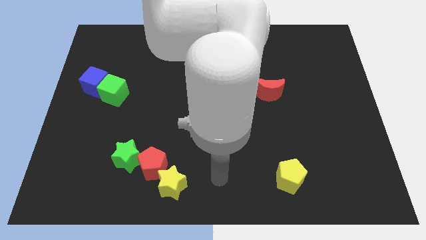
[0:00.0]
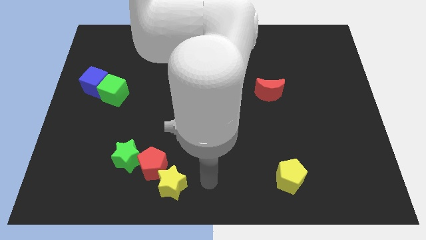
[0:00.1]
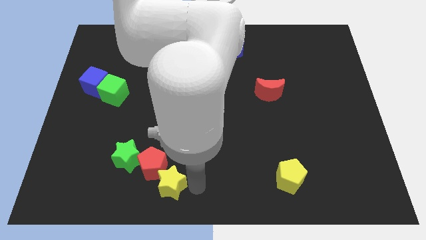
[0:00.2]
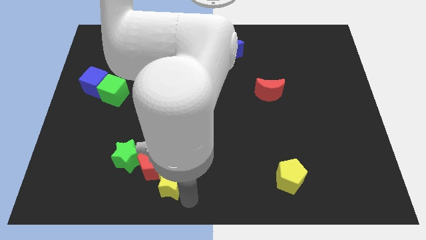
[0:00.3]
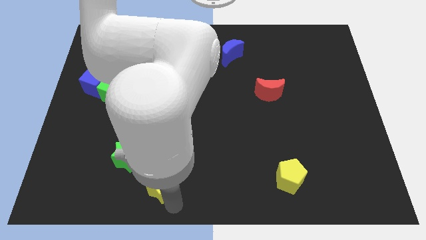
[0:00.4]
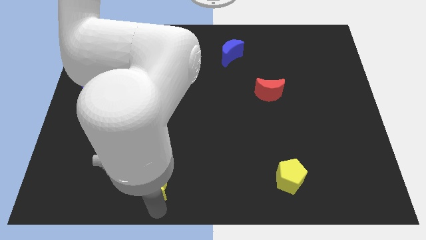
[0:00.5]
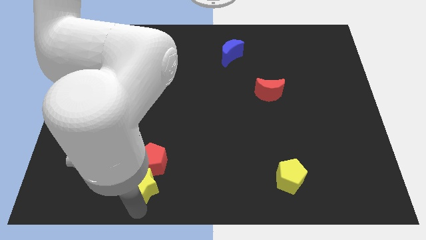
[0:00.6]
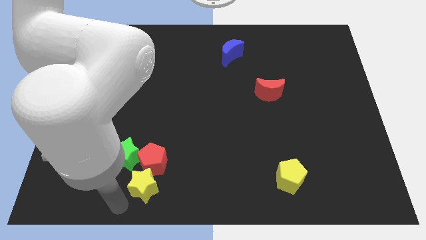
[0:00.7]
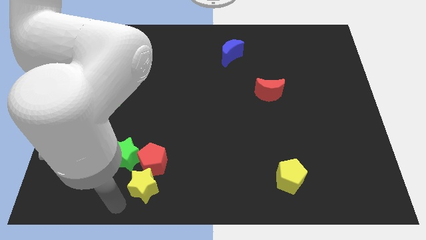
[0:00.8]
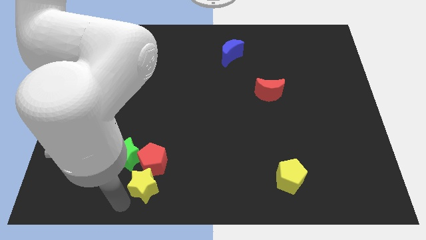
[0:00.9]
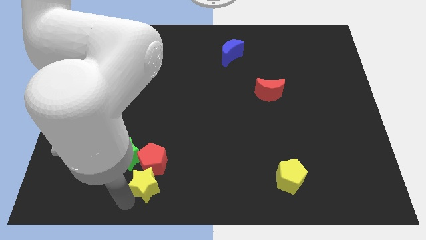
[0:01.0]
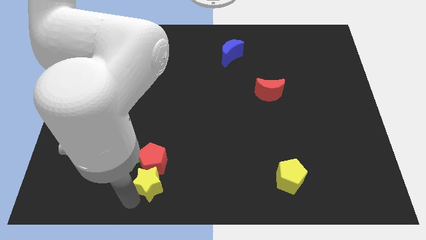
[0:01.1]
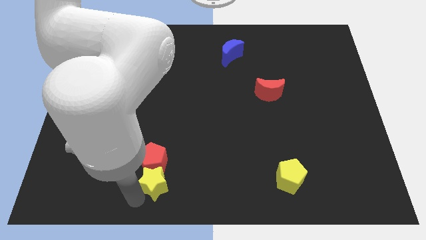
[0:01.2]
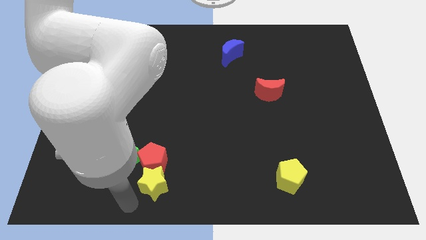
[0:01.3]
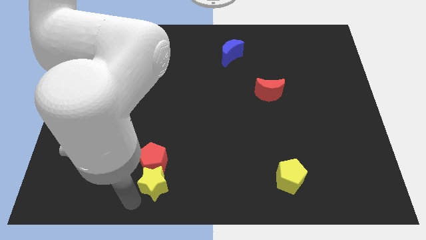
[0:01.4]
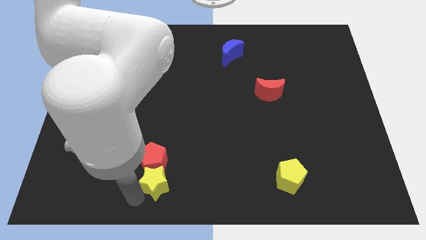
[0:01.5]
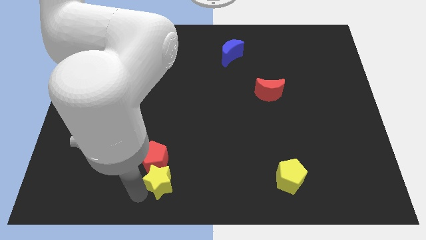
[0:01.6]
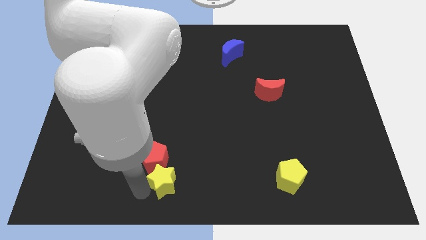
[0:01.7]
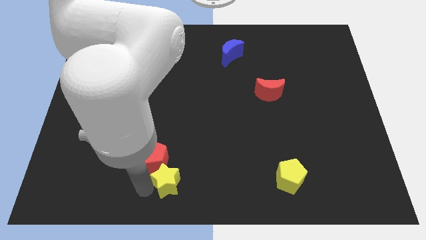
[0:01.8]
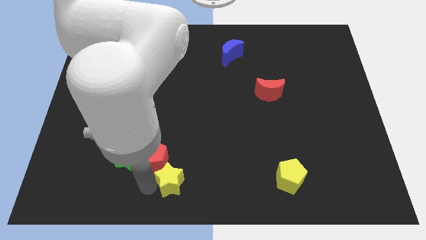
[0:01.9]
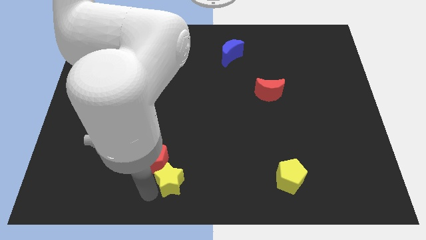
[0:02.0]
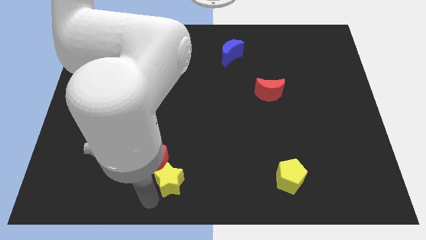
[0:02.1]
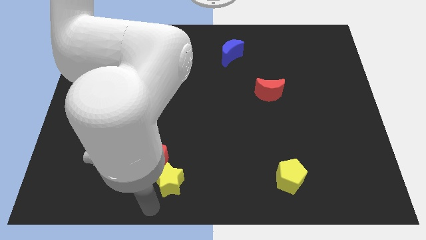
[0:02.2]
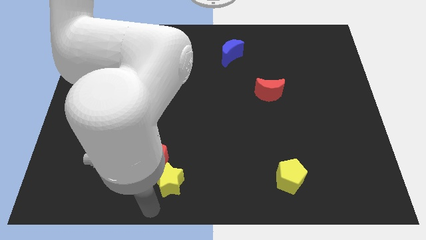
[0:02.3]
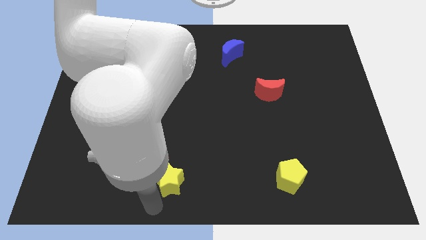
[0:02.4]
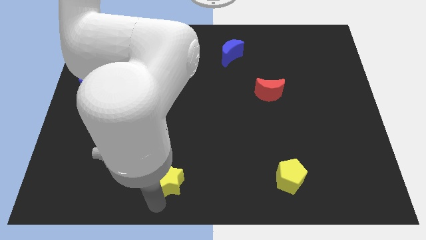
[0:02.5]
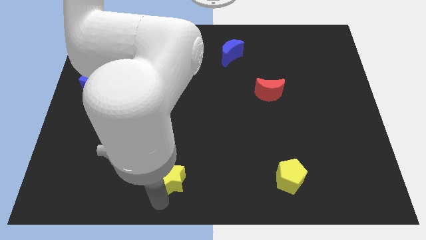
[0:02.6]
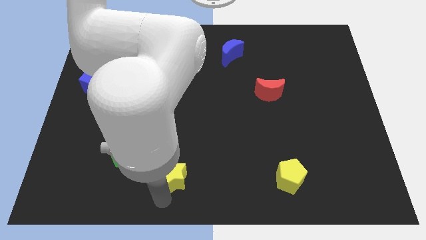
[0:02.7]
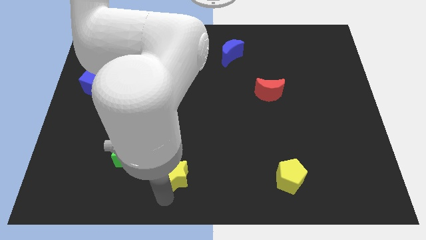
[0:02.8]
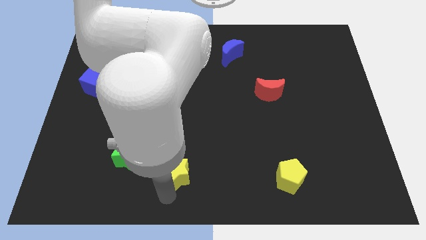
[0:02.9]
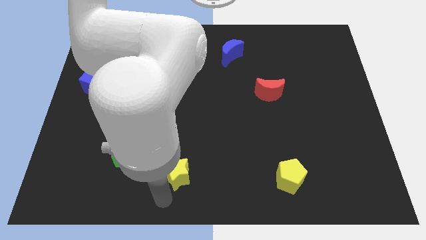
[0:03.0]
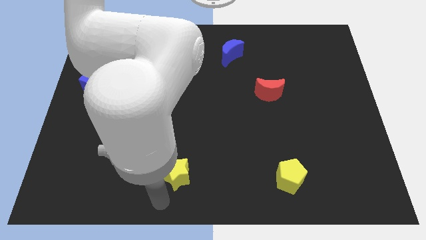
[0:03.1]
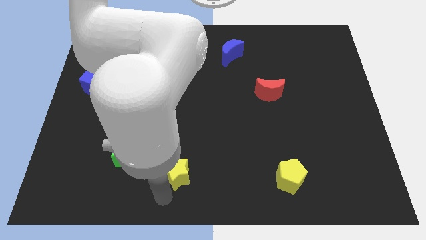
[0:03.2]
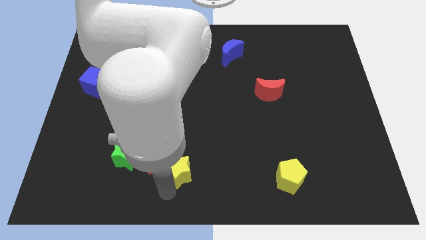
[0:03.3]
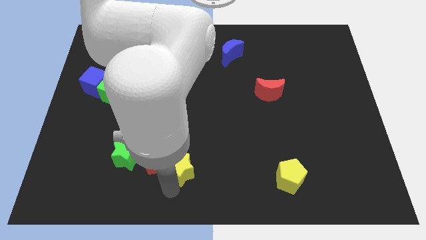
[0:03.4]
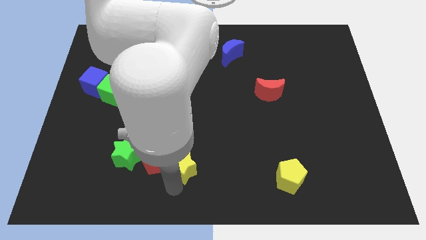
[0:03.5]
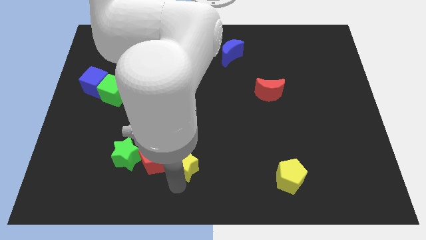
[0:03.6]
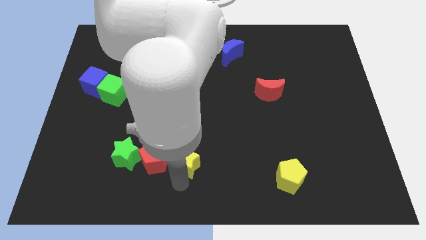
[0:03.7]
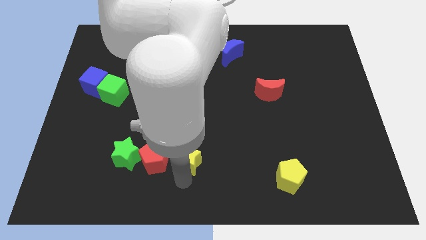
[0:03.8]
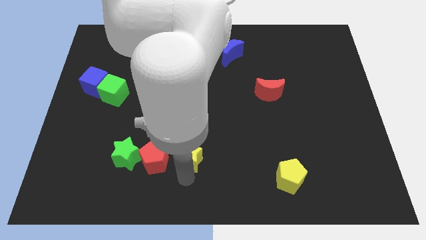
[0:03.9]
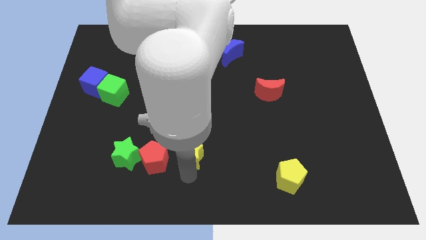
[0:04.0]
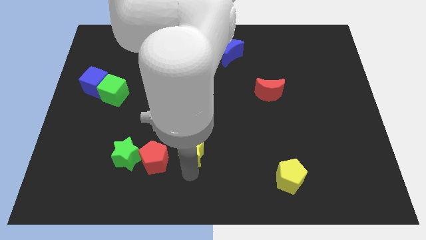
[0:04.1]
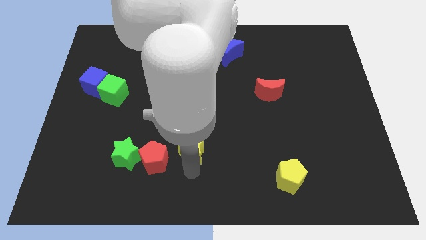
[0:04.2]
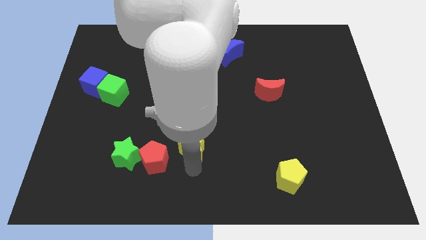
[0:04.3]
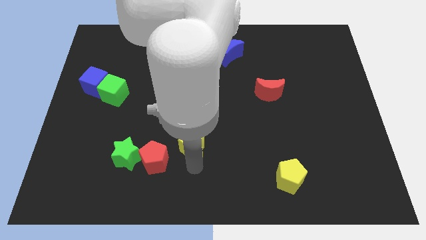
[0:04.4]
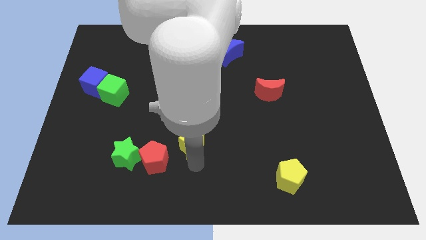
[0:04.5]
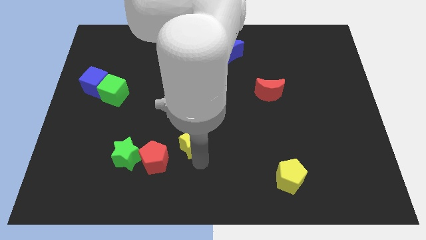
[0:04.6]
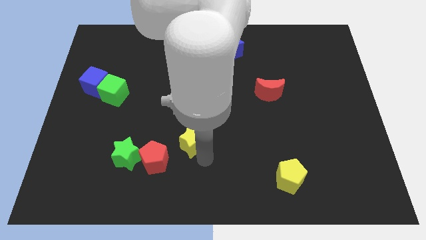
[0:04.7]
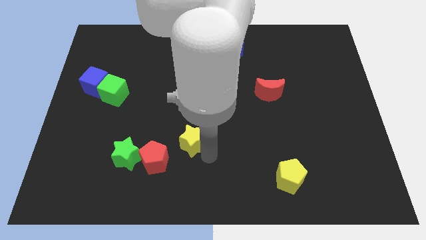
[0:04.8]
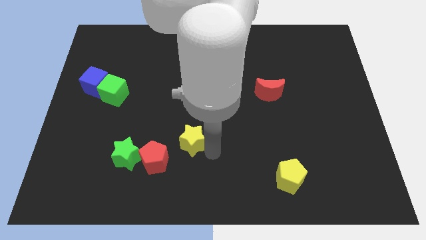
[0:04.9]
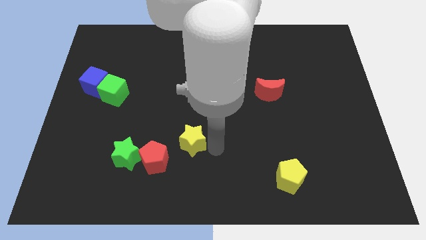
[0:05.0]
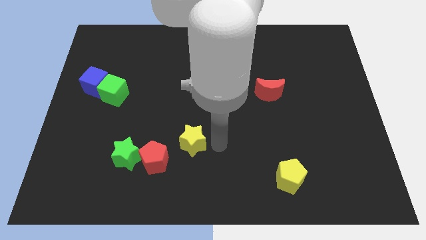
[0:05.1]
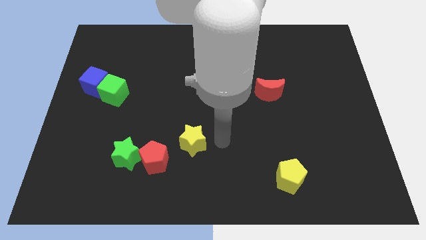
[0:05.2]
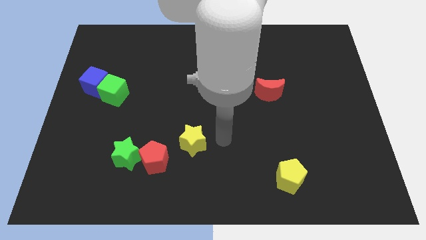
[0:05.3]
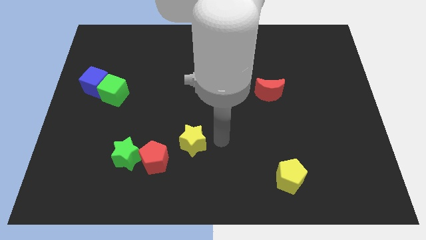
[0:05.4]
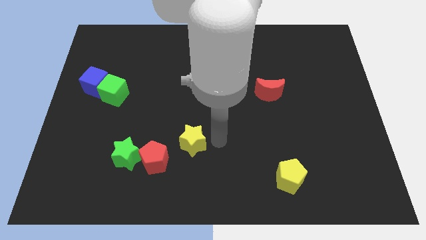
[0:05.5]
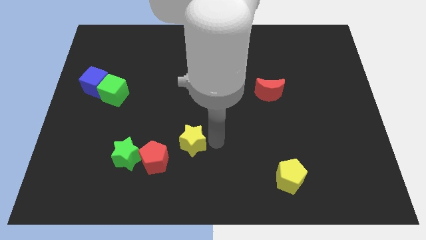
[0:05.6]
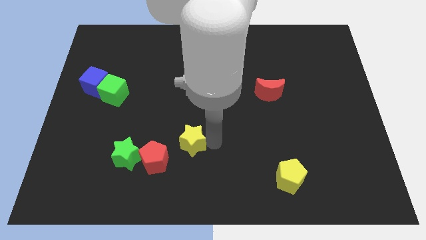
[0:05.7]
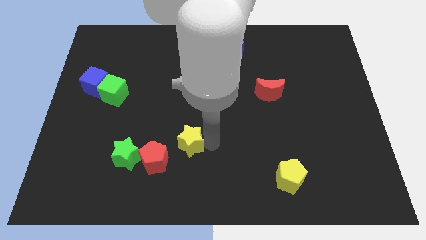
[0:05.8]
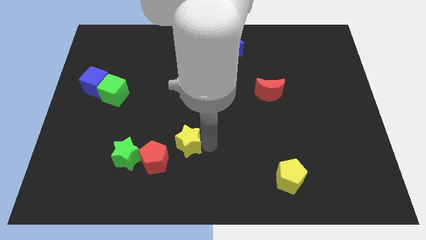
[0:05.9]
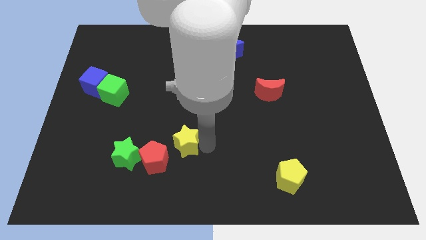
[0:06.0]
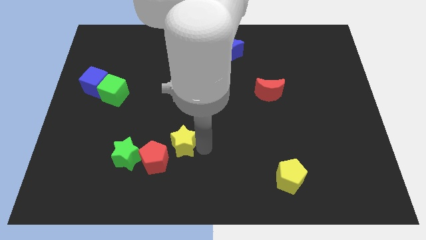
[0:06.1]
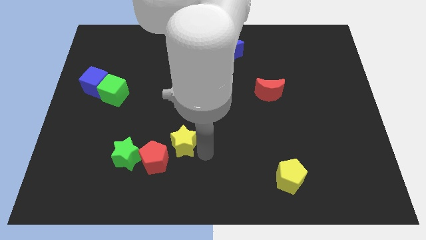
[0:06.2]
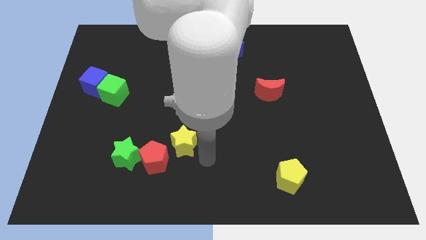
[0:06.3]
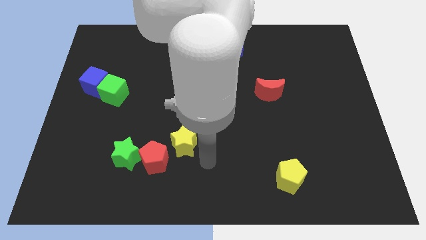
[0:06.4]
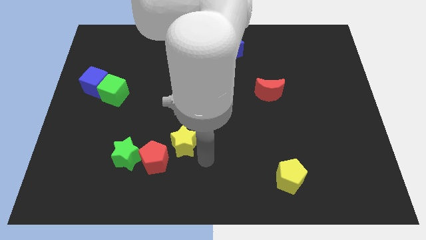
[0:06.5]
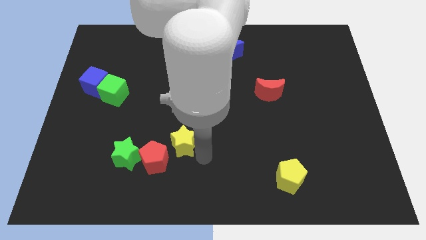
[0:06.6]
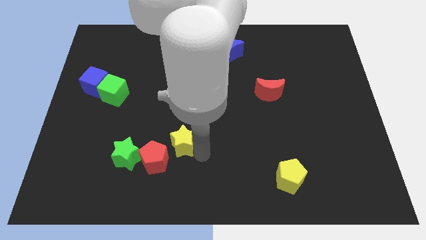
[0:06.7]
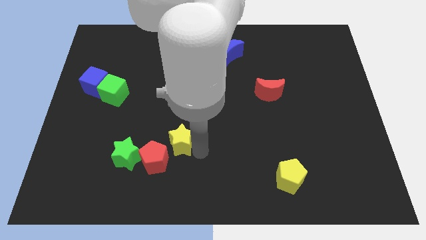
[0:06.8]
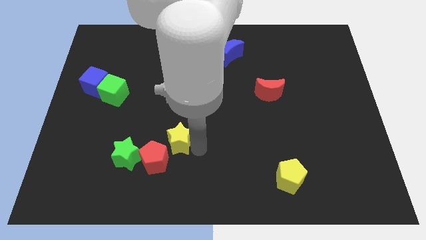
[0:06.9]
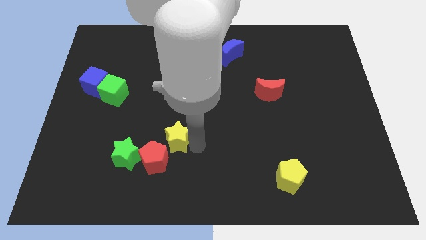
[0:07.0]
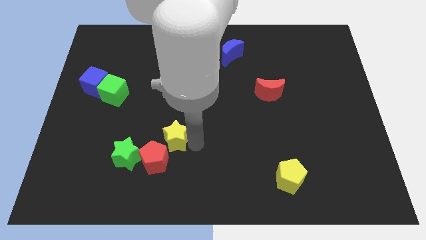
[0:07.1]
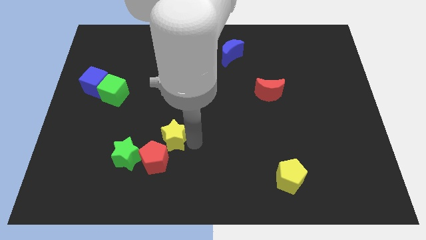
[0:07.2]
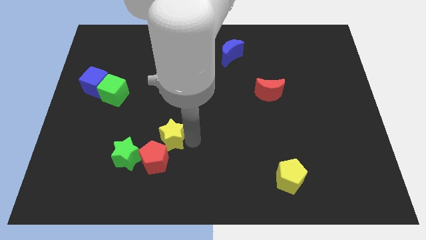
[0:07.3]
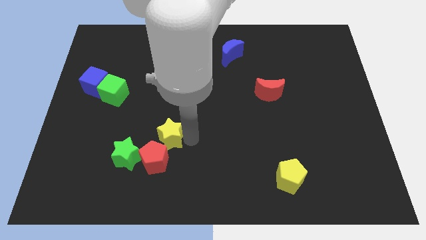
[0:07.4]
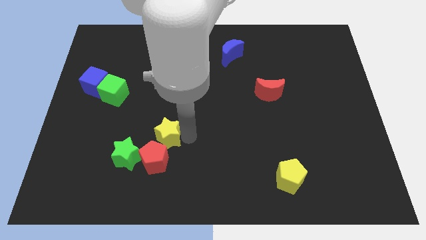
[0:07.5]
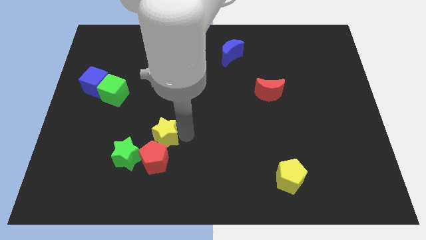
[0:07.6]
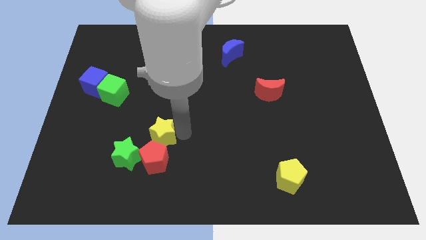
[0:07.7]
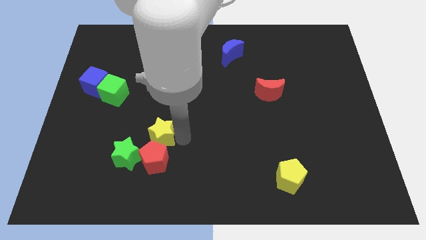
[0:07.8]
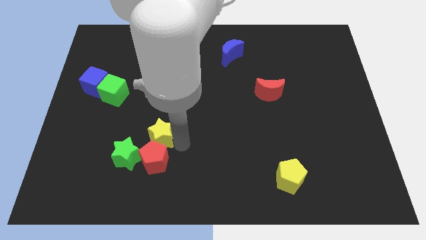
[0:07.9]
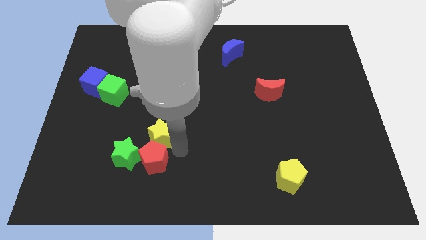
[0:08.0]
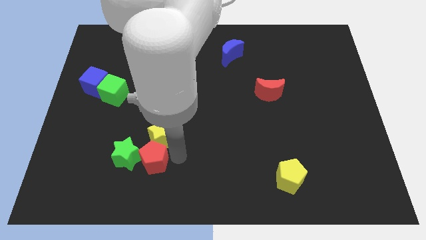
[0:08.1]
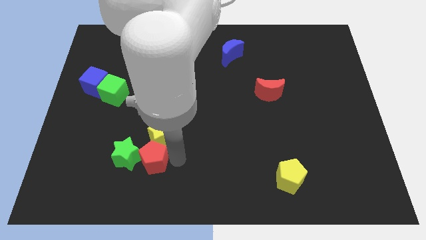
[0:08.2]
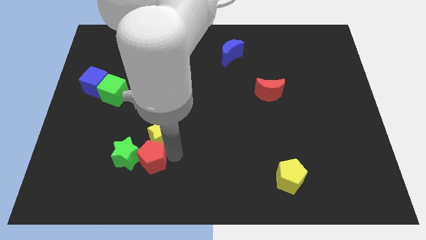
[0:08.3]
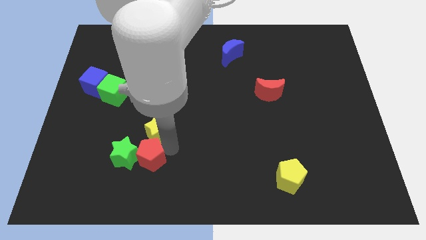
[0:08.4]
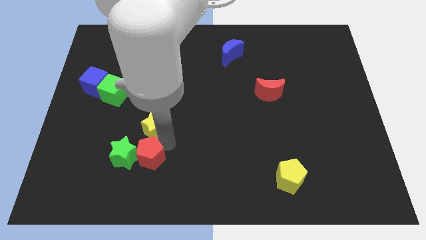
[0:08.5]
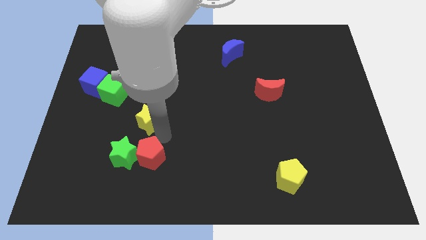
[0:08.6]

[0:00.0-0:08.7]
move the yellow star to the bottom right of the green cube
